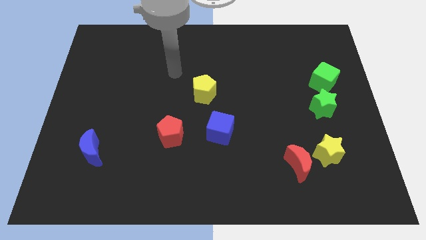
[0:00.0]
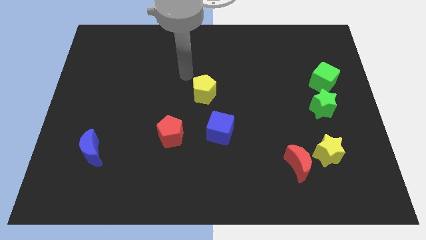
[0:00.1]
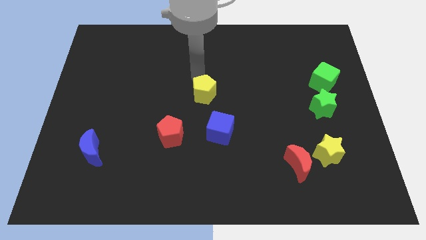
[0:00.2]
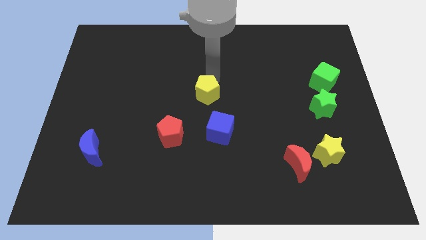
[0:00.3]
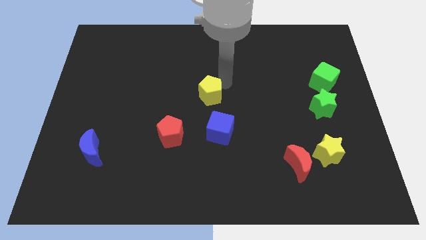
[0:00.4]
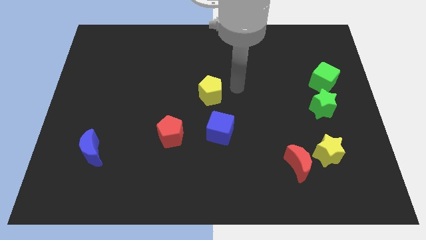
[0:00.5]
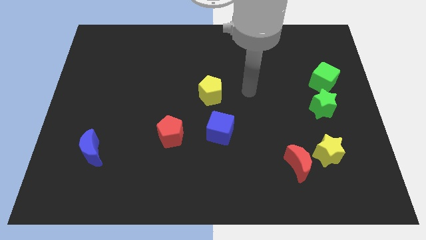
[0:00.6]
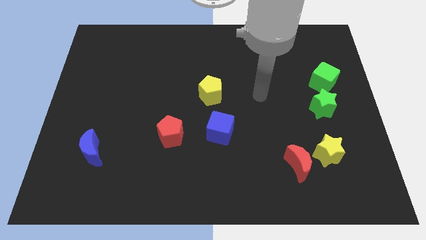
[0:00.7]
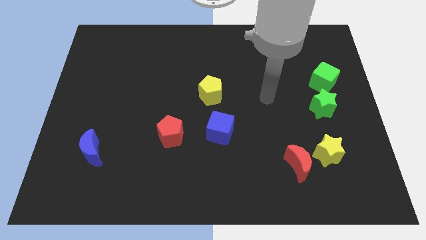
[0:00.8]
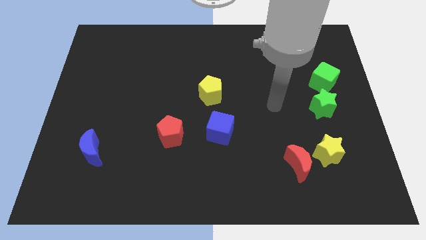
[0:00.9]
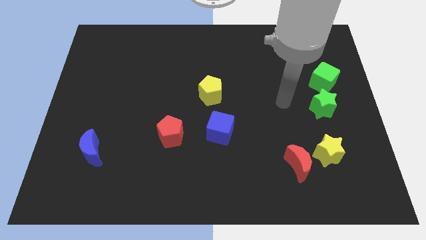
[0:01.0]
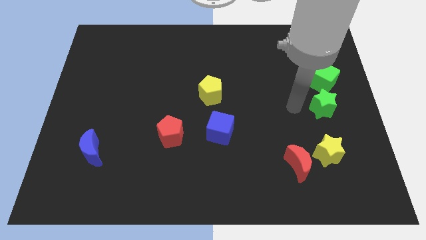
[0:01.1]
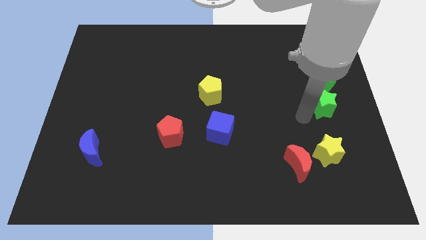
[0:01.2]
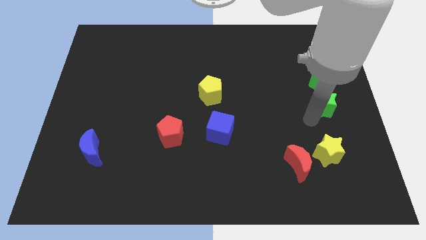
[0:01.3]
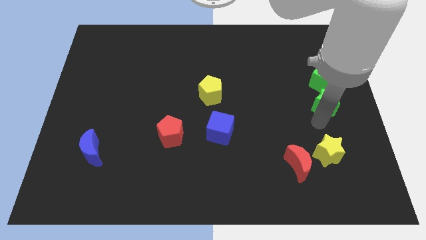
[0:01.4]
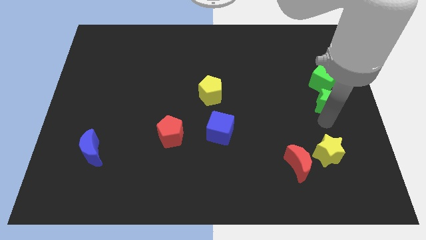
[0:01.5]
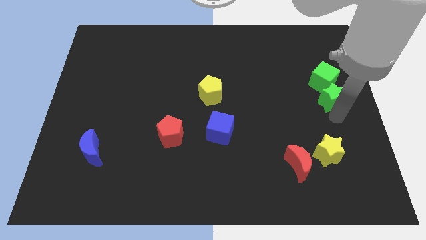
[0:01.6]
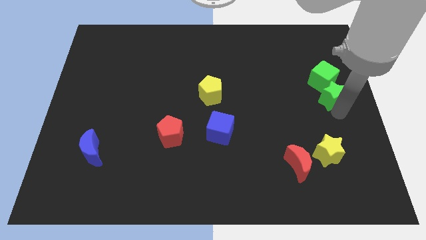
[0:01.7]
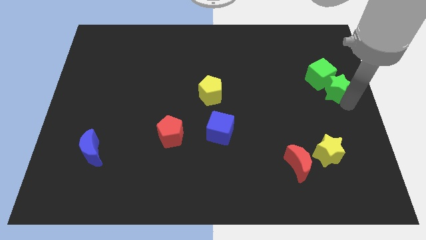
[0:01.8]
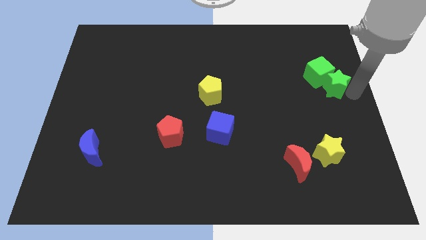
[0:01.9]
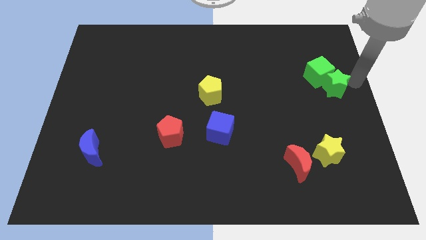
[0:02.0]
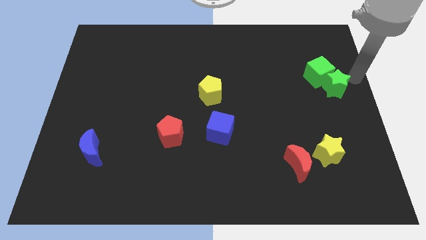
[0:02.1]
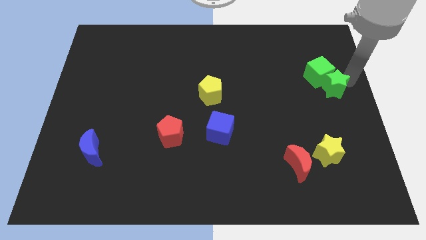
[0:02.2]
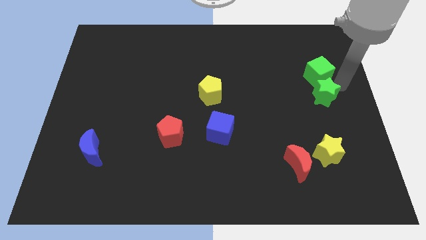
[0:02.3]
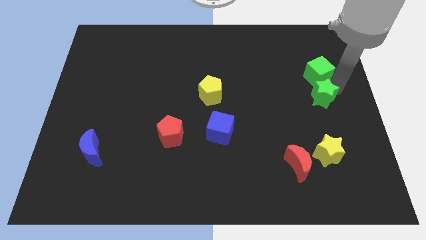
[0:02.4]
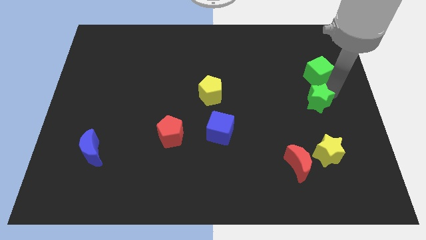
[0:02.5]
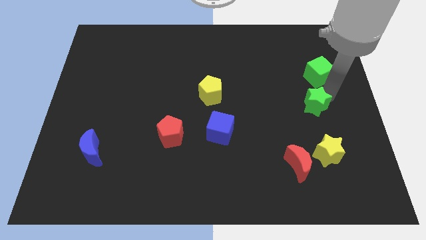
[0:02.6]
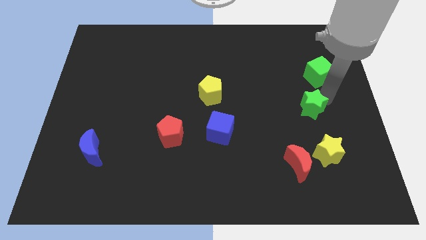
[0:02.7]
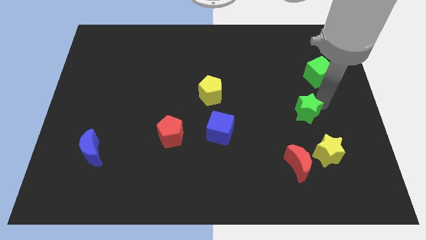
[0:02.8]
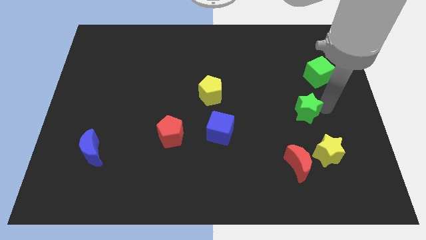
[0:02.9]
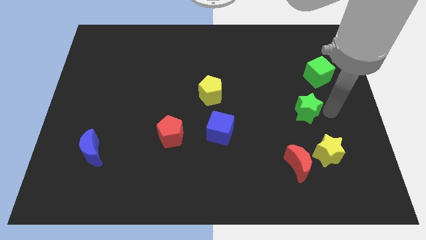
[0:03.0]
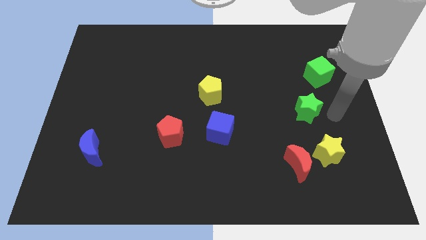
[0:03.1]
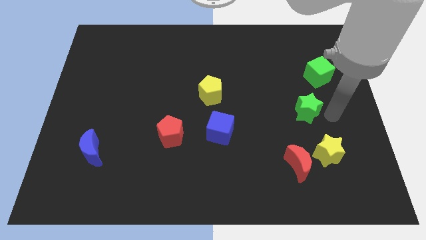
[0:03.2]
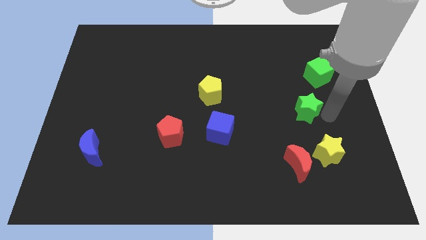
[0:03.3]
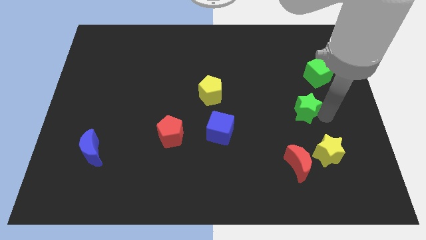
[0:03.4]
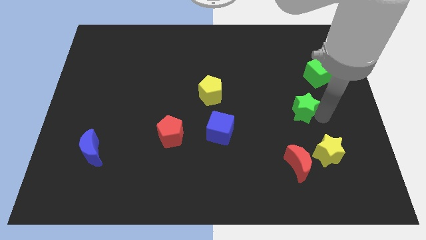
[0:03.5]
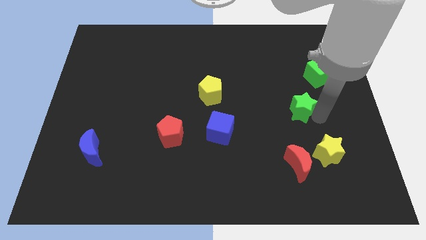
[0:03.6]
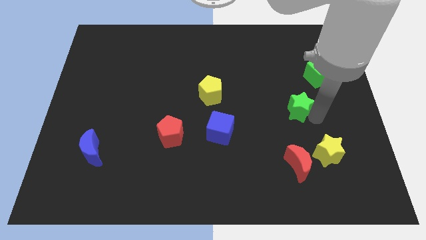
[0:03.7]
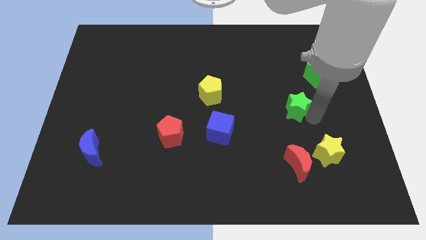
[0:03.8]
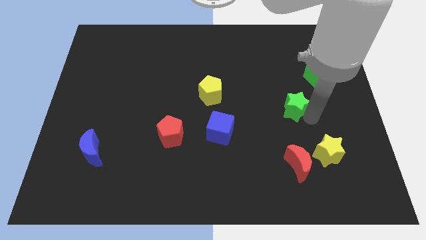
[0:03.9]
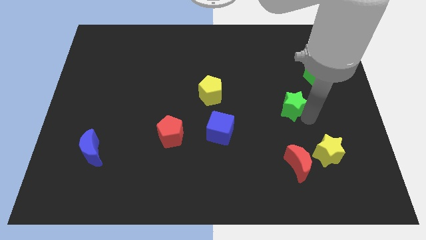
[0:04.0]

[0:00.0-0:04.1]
slightly move the green star to the left

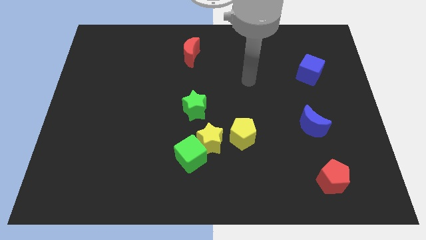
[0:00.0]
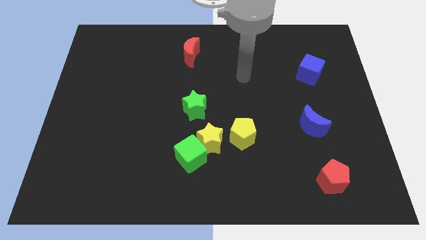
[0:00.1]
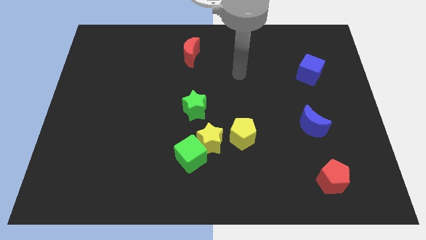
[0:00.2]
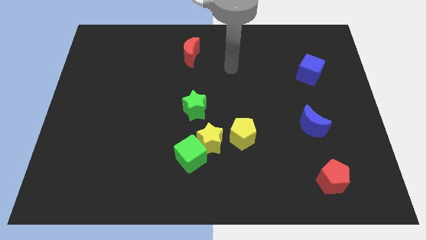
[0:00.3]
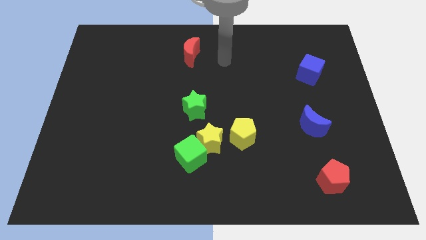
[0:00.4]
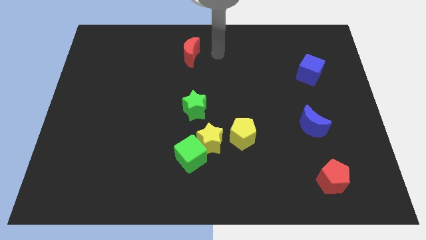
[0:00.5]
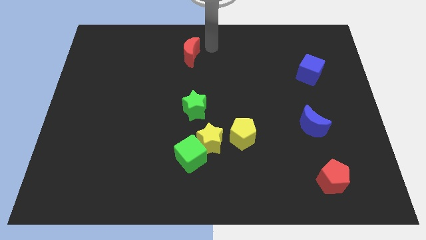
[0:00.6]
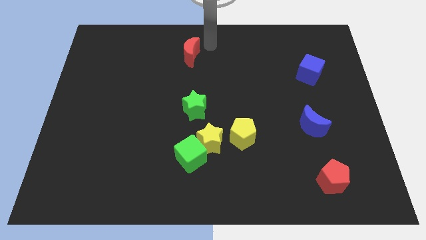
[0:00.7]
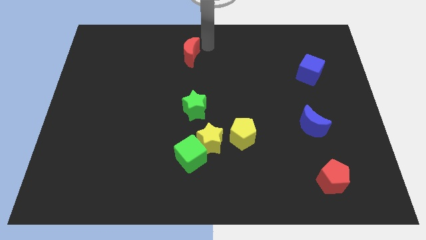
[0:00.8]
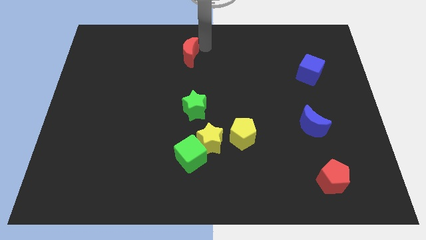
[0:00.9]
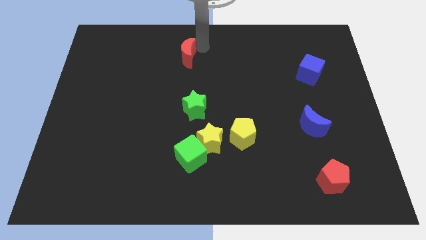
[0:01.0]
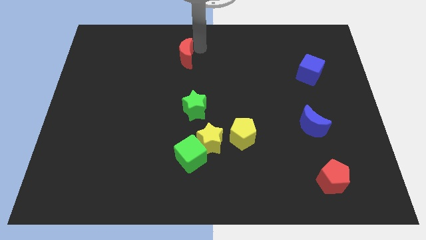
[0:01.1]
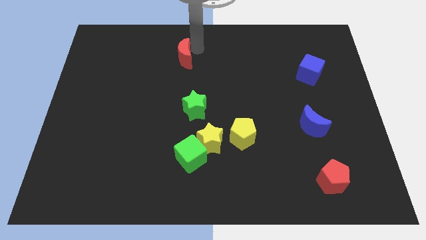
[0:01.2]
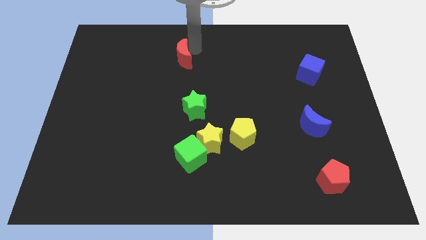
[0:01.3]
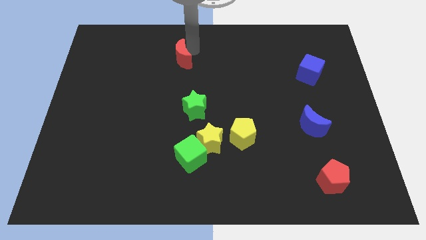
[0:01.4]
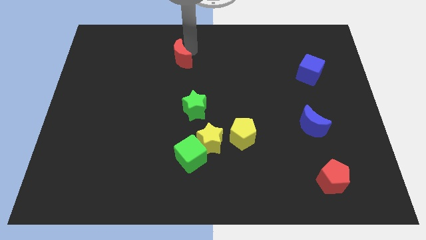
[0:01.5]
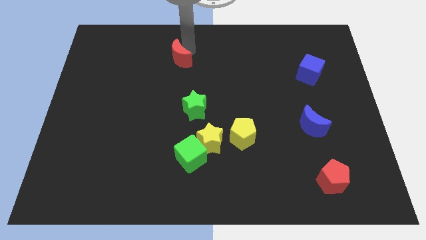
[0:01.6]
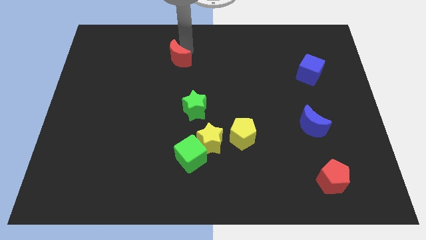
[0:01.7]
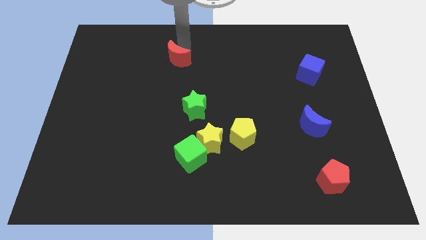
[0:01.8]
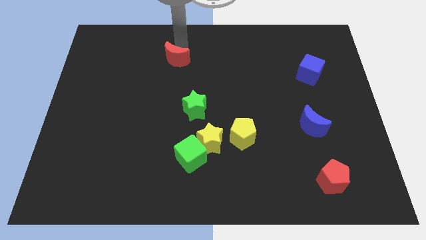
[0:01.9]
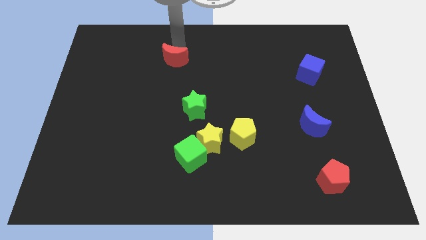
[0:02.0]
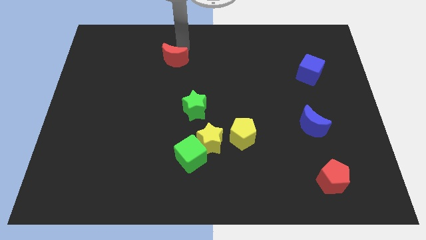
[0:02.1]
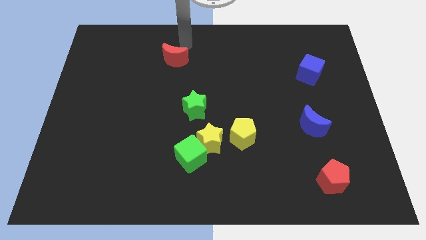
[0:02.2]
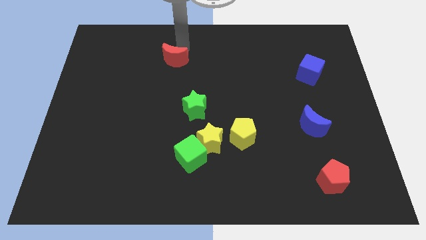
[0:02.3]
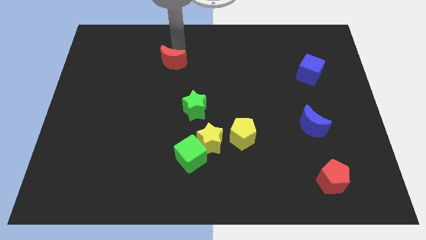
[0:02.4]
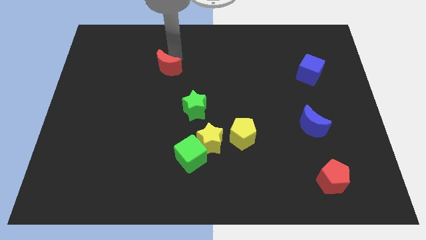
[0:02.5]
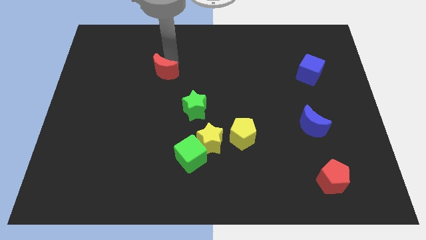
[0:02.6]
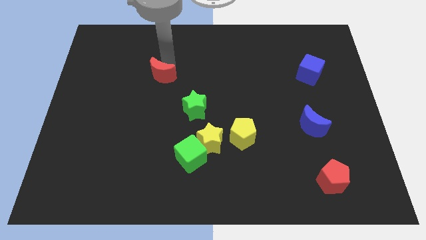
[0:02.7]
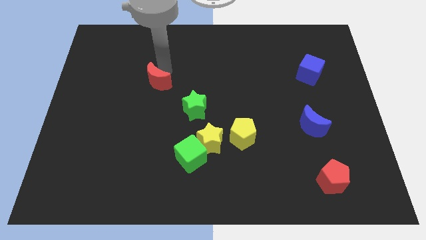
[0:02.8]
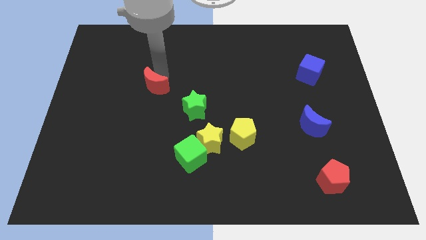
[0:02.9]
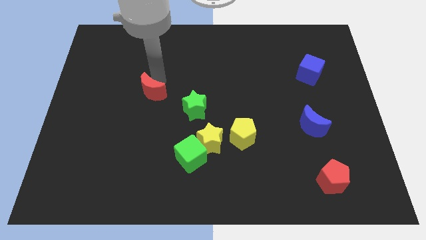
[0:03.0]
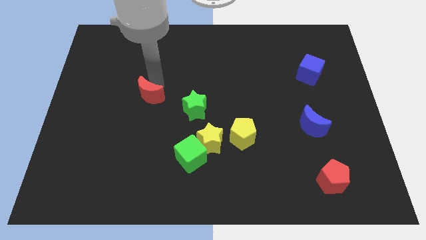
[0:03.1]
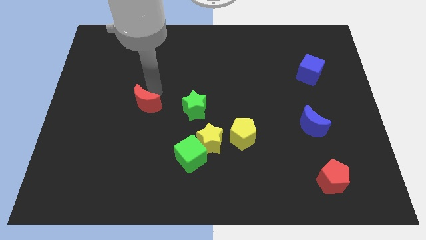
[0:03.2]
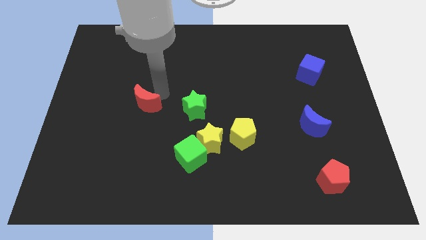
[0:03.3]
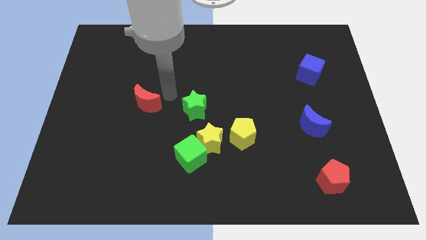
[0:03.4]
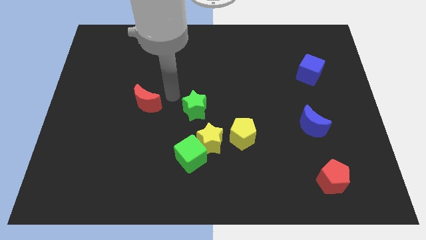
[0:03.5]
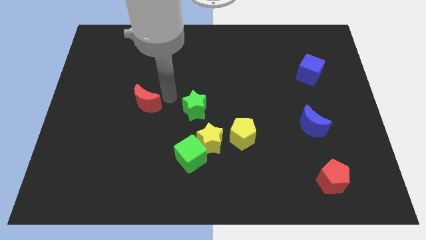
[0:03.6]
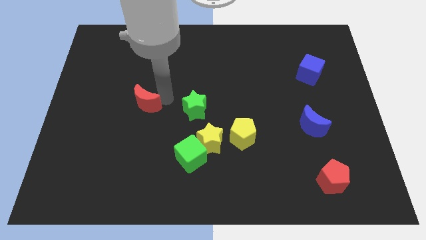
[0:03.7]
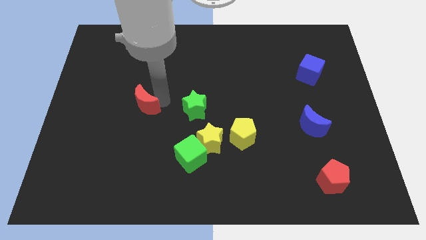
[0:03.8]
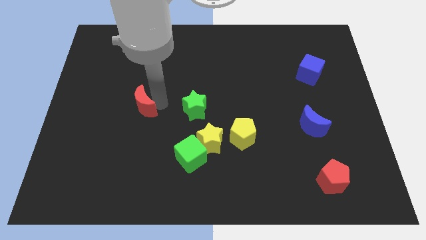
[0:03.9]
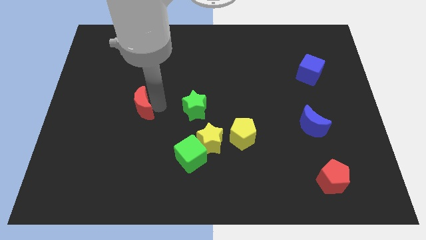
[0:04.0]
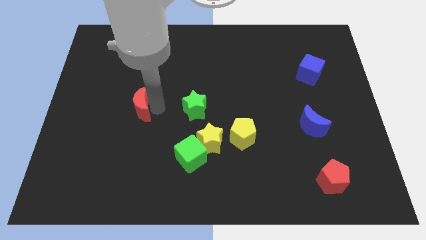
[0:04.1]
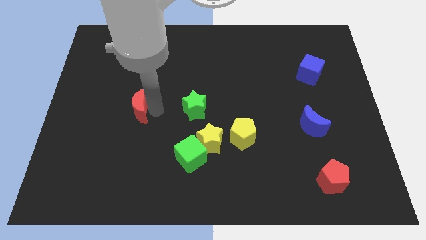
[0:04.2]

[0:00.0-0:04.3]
slide the red moon downwards and left diagonally
